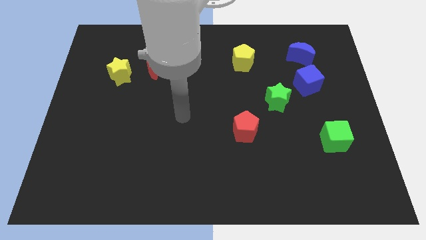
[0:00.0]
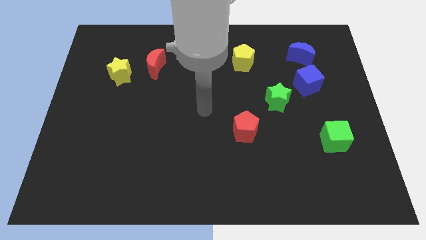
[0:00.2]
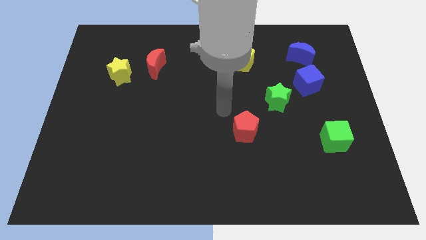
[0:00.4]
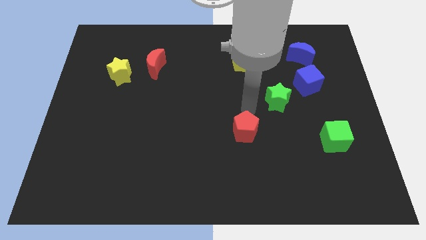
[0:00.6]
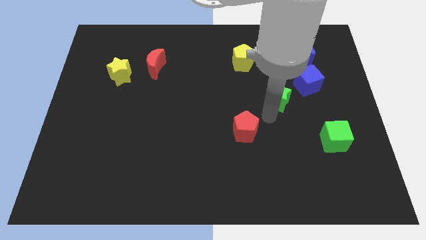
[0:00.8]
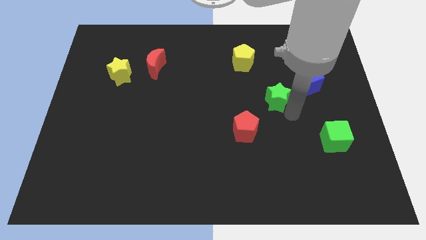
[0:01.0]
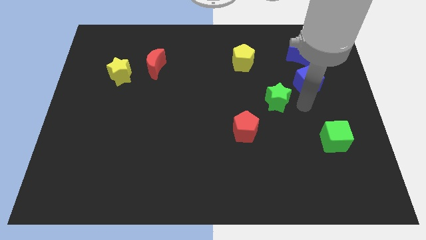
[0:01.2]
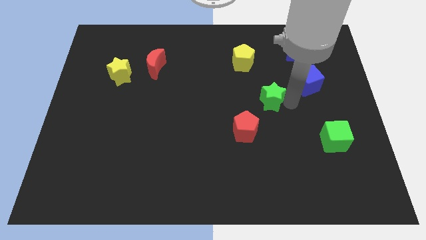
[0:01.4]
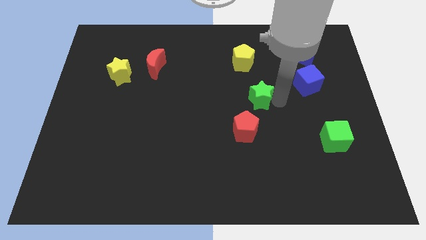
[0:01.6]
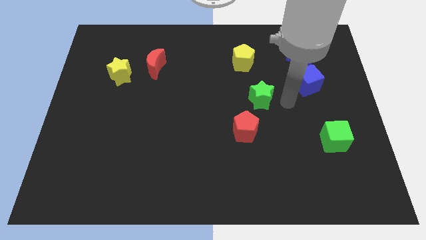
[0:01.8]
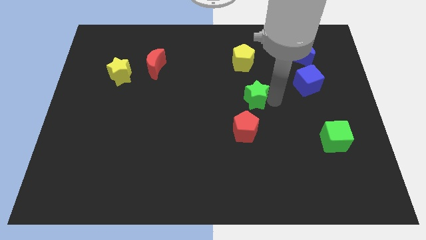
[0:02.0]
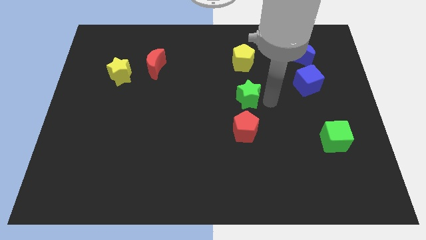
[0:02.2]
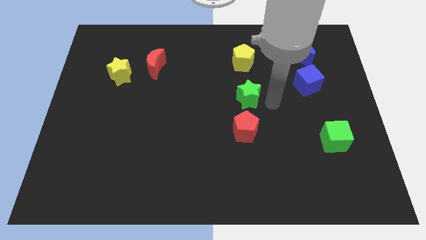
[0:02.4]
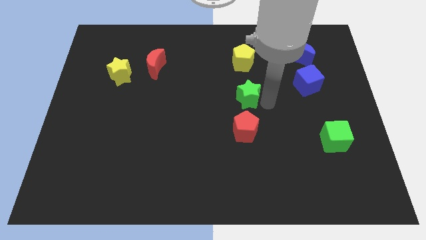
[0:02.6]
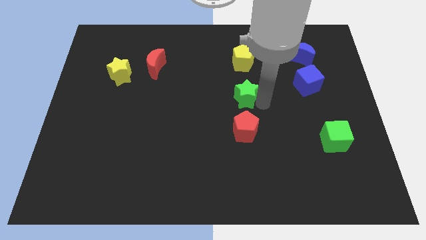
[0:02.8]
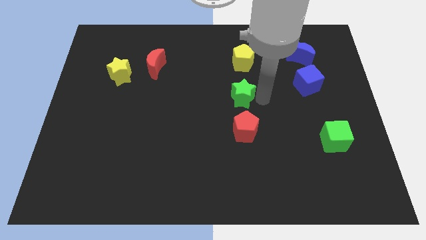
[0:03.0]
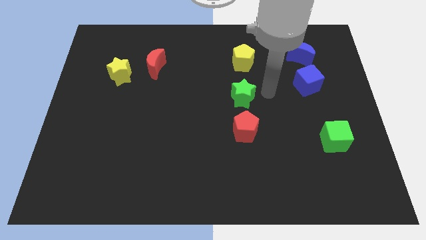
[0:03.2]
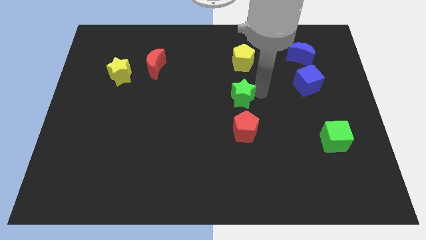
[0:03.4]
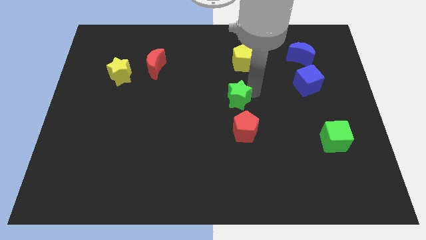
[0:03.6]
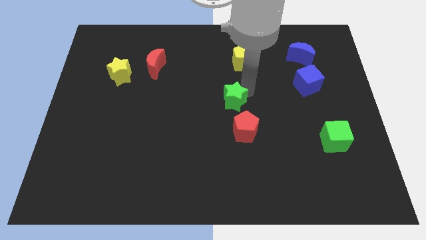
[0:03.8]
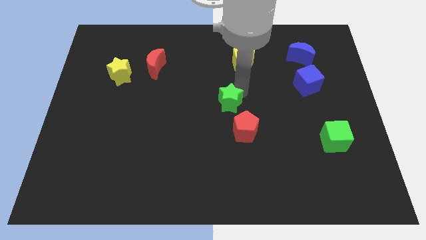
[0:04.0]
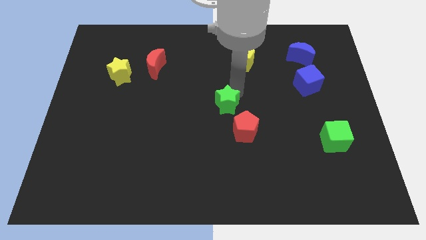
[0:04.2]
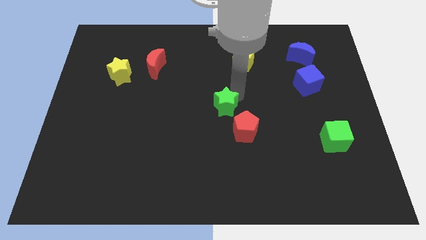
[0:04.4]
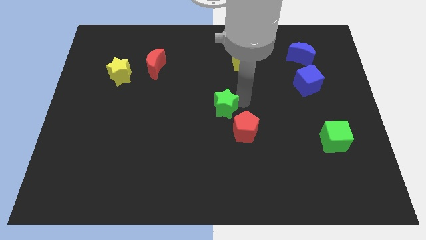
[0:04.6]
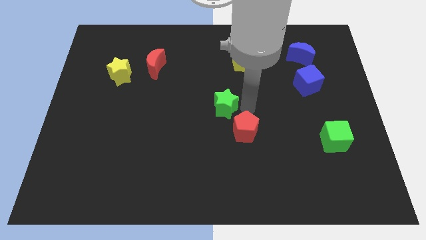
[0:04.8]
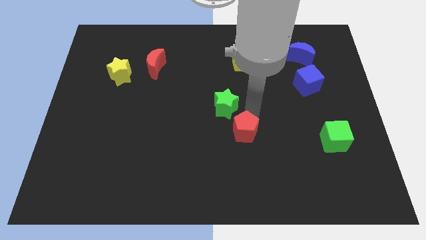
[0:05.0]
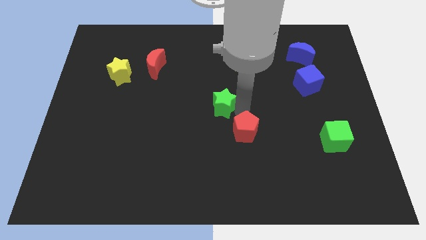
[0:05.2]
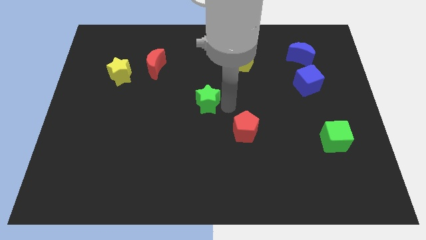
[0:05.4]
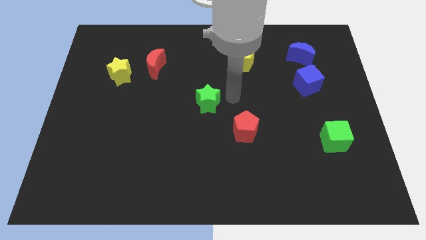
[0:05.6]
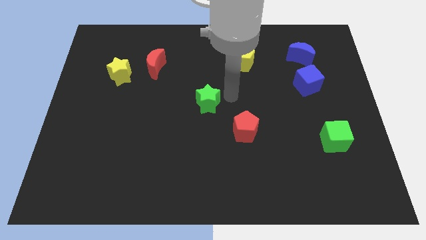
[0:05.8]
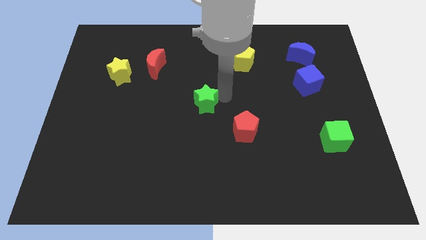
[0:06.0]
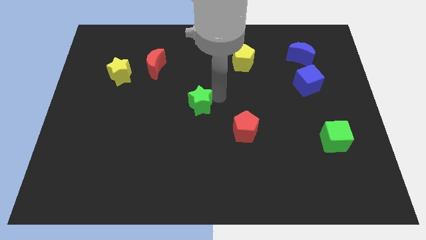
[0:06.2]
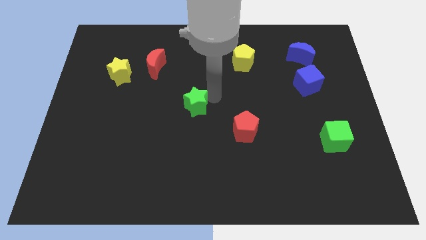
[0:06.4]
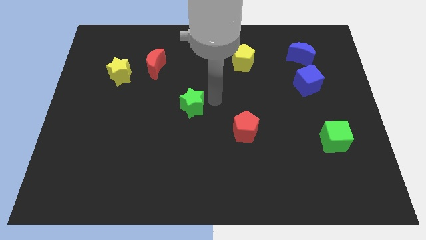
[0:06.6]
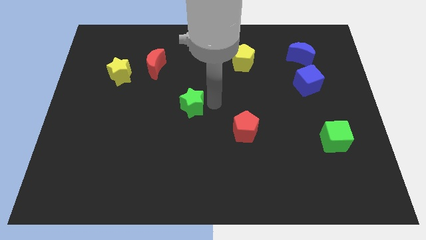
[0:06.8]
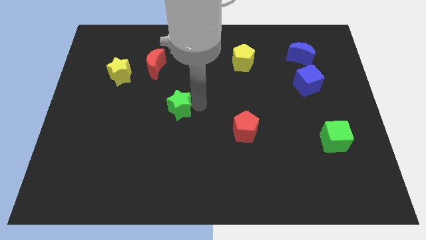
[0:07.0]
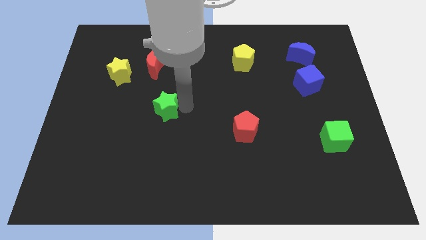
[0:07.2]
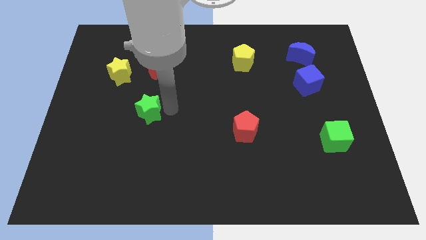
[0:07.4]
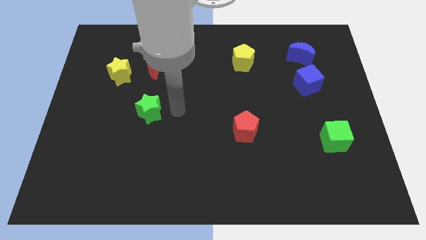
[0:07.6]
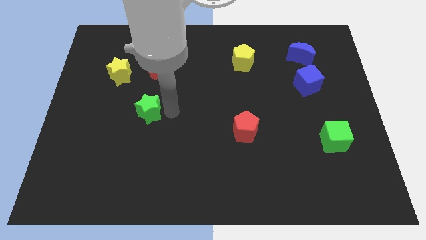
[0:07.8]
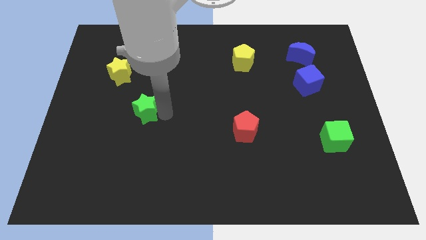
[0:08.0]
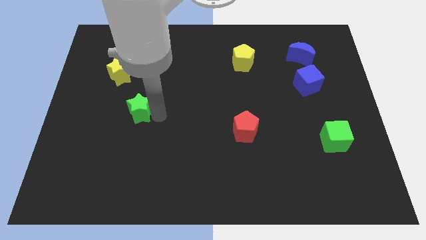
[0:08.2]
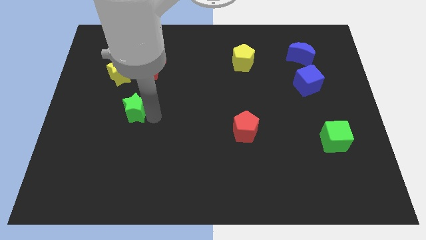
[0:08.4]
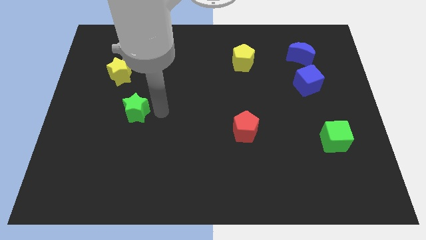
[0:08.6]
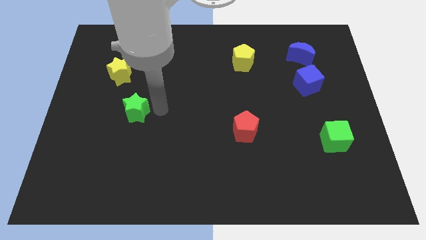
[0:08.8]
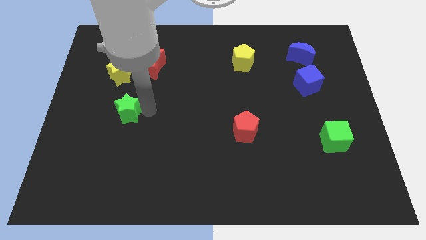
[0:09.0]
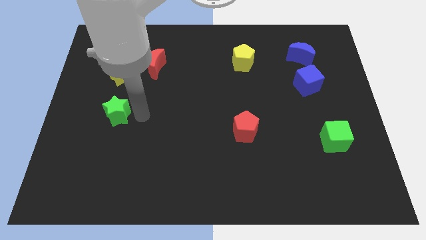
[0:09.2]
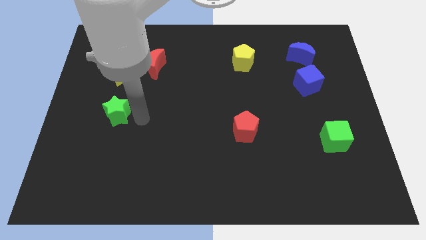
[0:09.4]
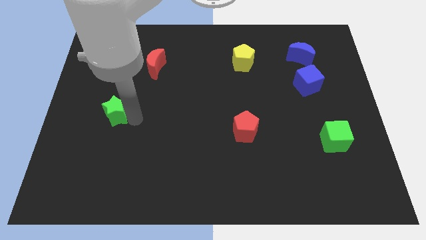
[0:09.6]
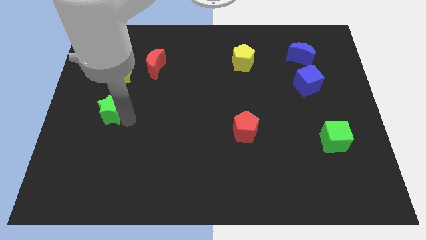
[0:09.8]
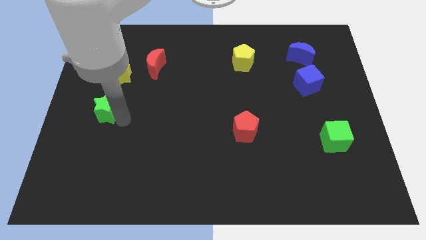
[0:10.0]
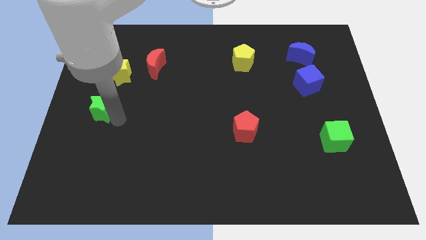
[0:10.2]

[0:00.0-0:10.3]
slide the green star to the center left

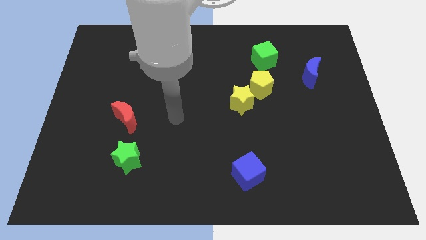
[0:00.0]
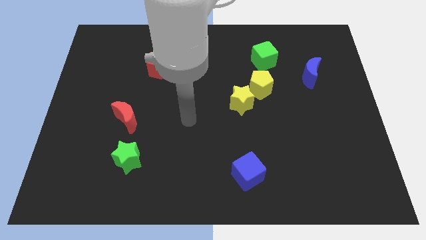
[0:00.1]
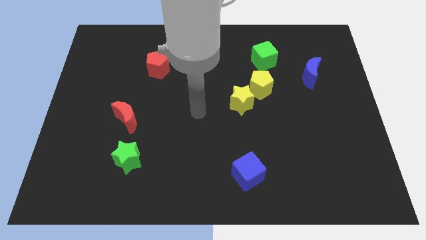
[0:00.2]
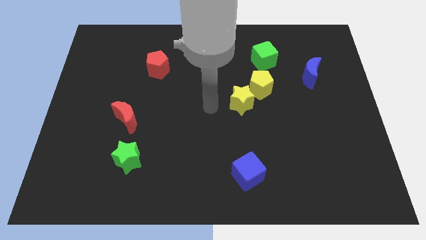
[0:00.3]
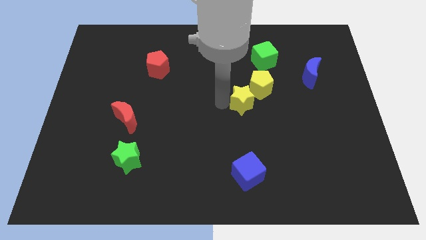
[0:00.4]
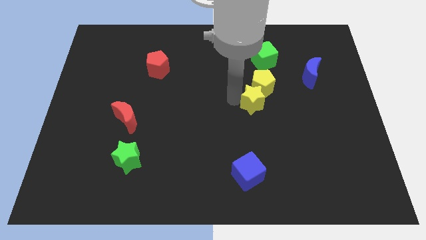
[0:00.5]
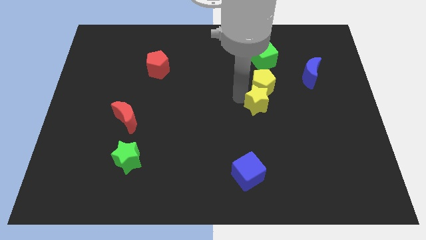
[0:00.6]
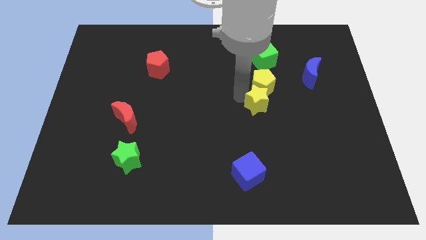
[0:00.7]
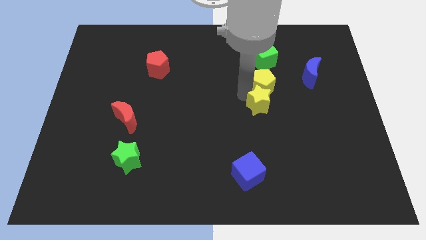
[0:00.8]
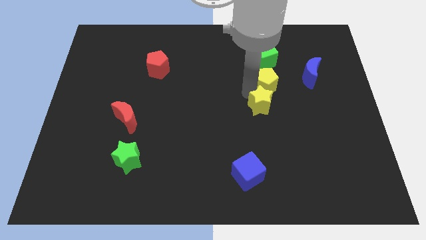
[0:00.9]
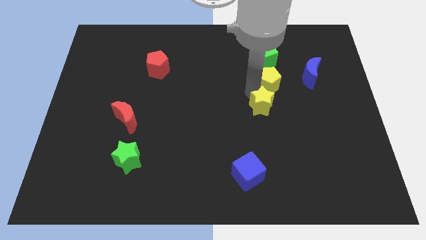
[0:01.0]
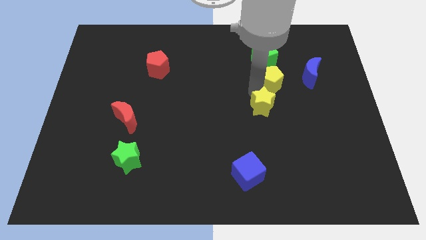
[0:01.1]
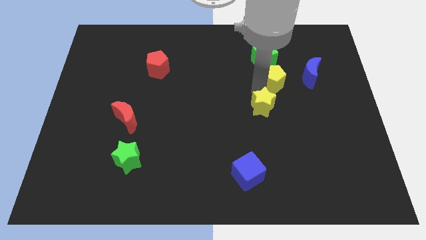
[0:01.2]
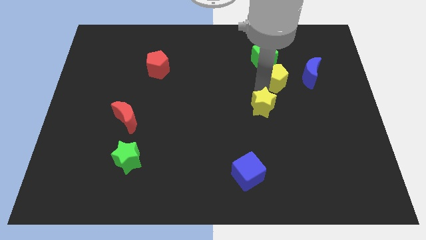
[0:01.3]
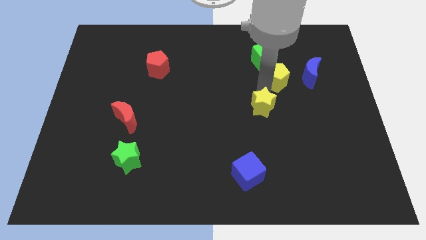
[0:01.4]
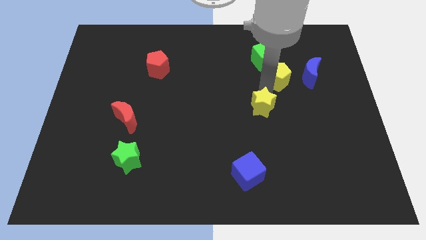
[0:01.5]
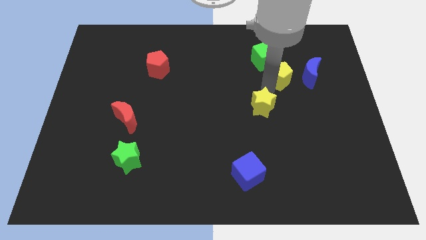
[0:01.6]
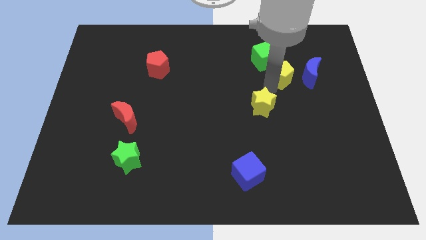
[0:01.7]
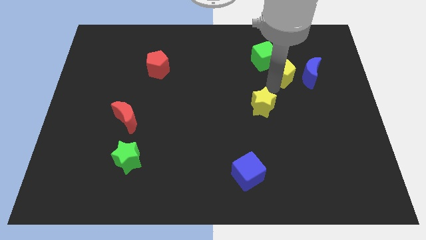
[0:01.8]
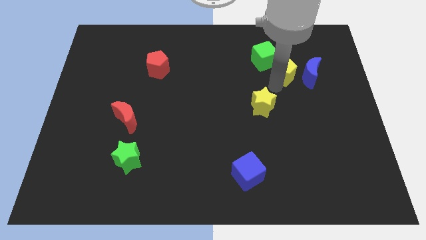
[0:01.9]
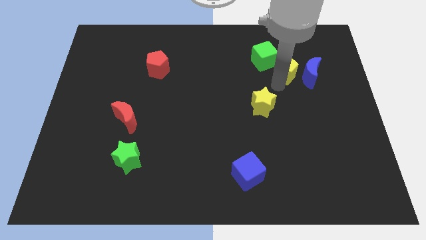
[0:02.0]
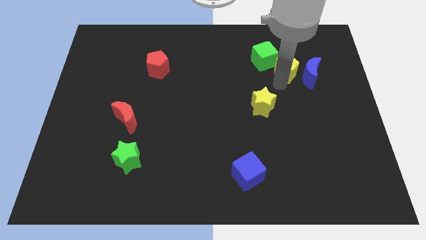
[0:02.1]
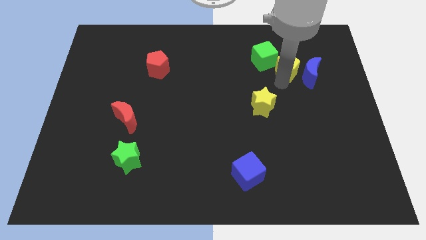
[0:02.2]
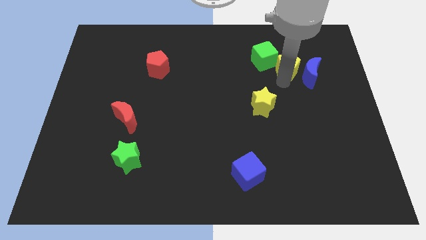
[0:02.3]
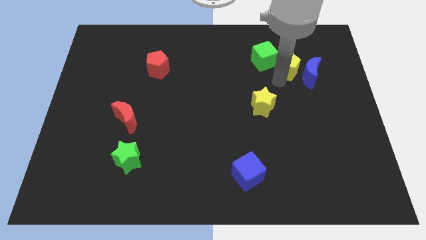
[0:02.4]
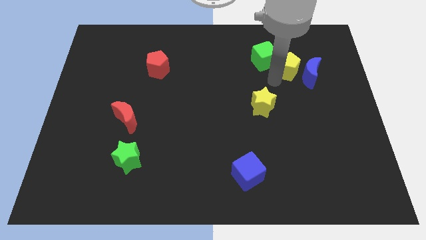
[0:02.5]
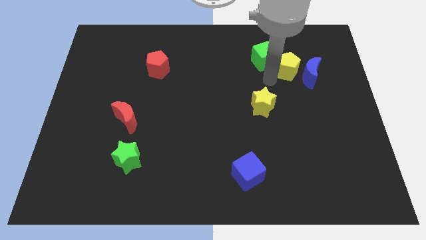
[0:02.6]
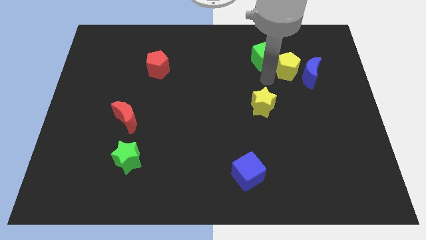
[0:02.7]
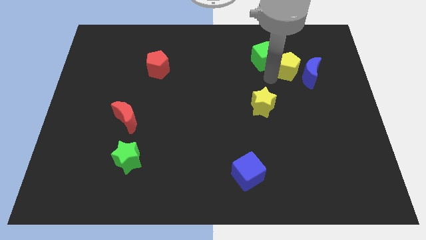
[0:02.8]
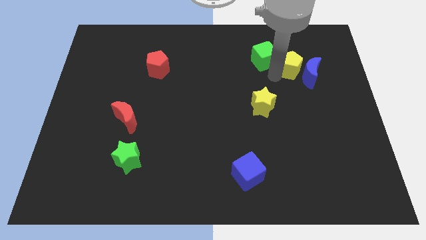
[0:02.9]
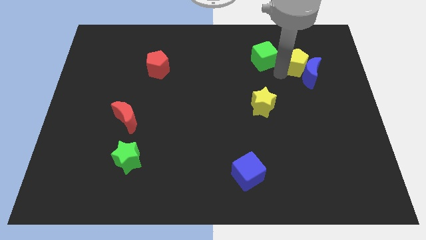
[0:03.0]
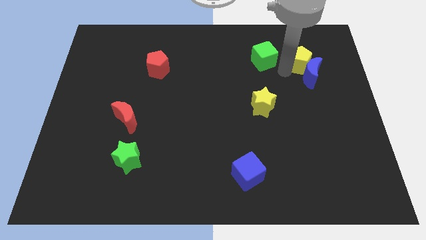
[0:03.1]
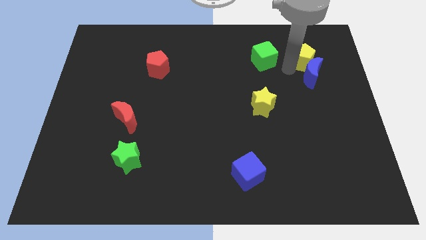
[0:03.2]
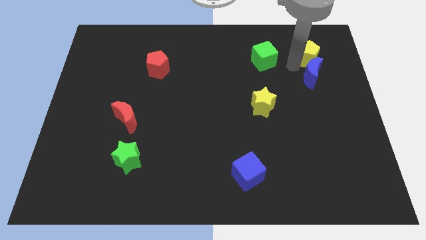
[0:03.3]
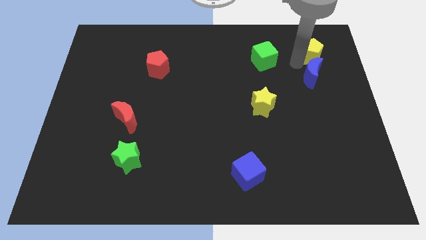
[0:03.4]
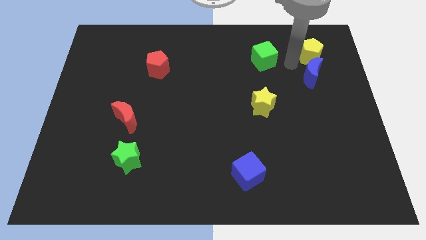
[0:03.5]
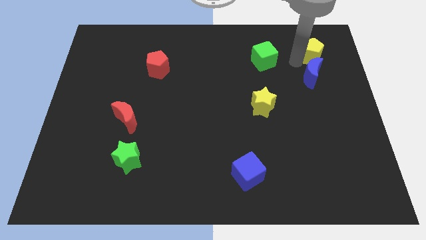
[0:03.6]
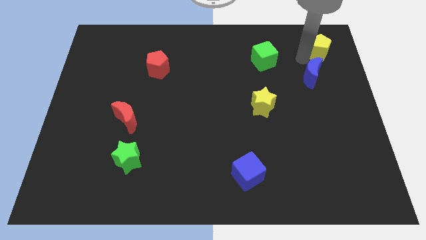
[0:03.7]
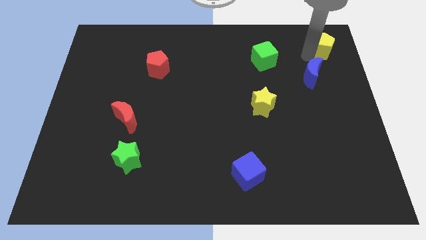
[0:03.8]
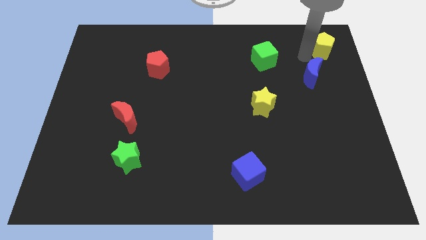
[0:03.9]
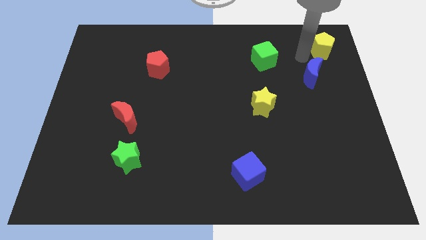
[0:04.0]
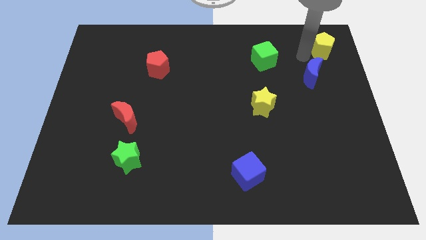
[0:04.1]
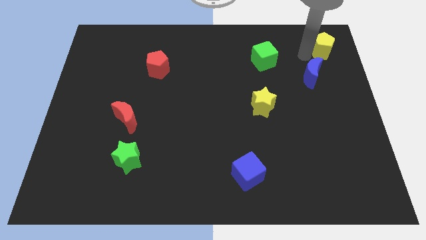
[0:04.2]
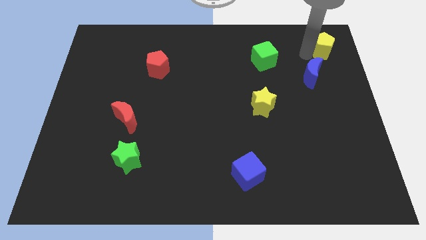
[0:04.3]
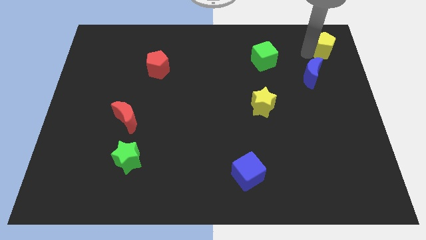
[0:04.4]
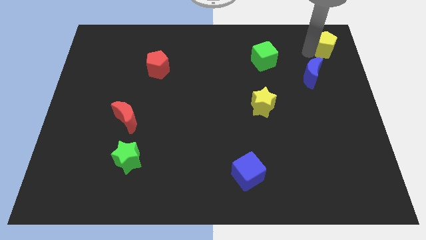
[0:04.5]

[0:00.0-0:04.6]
move the yellow pentagon to the upper right corner
